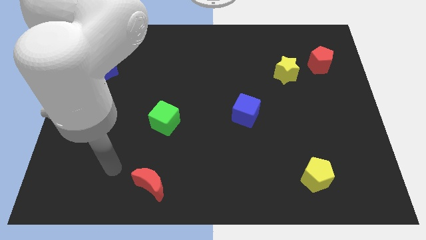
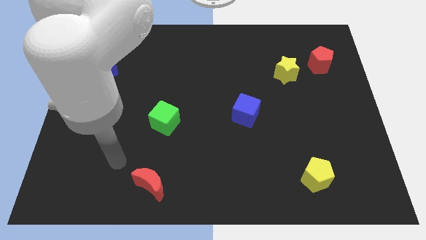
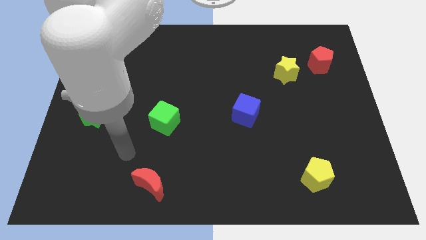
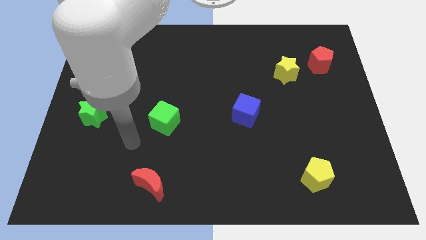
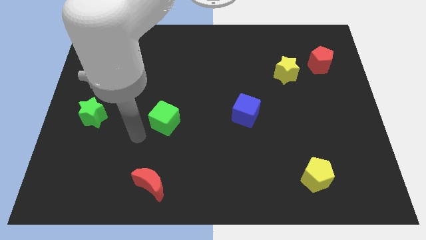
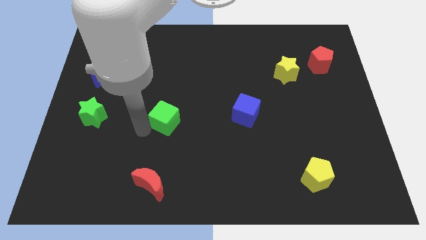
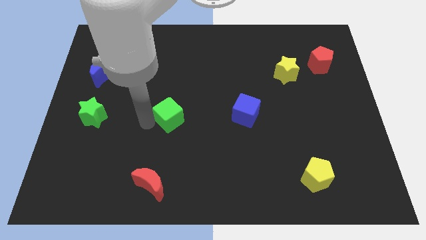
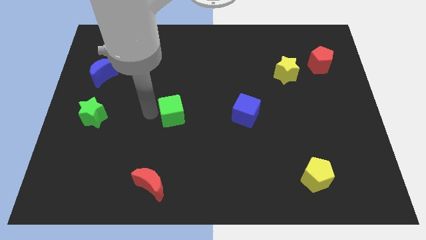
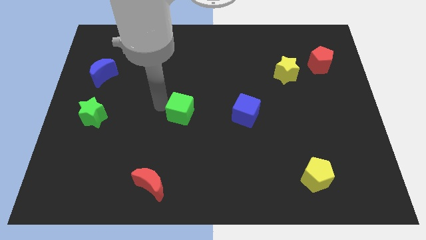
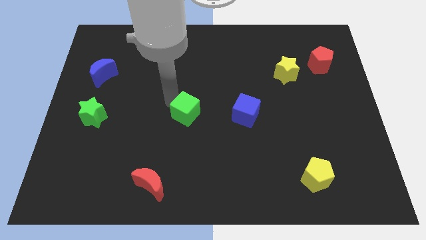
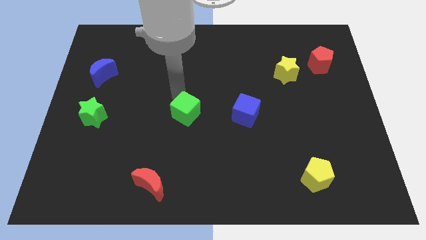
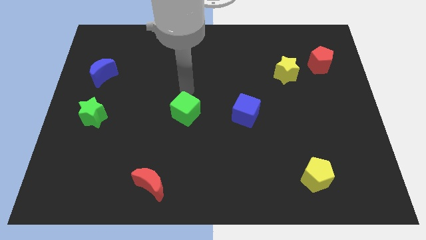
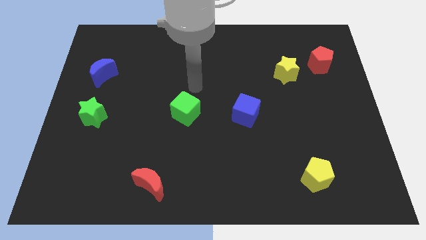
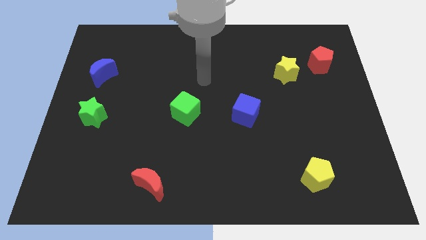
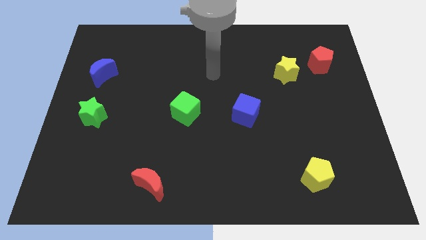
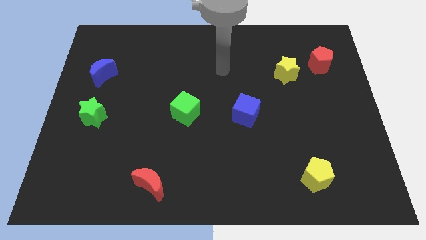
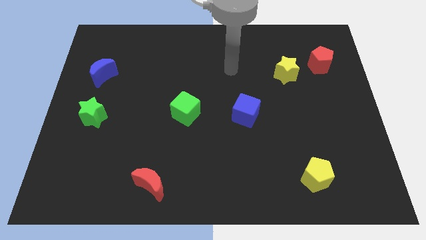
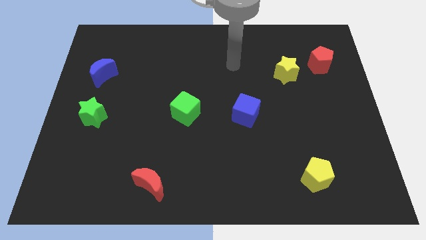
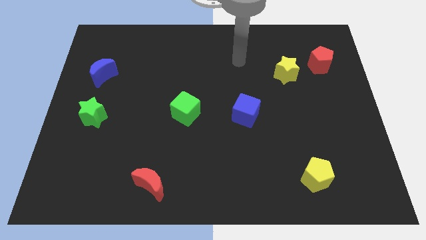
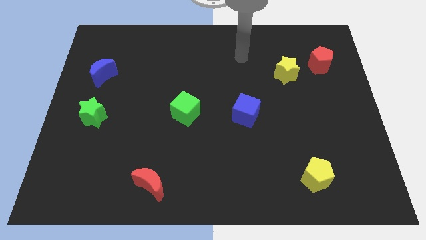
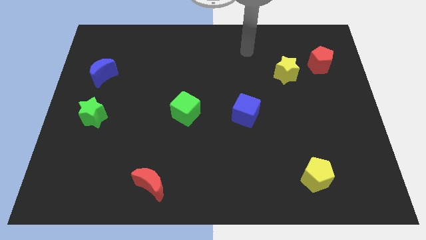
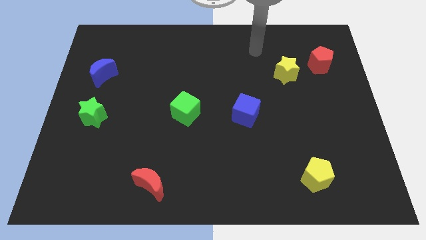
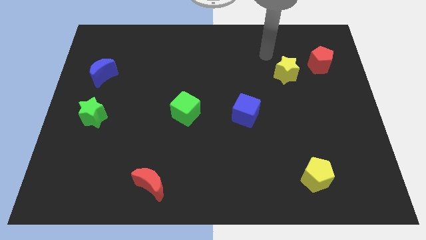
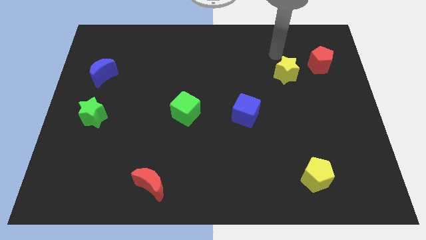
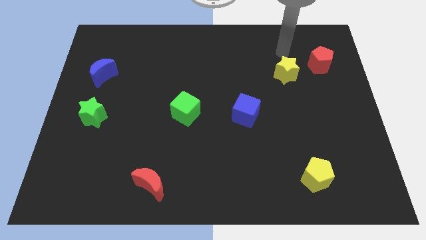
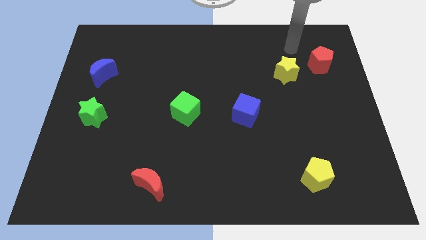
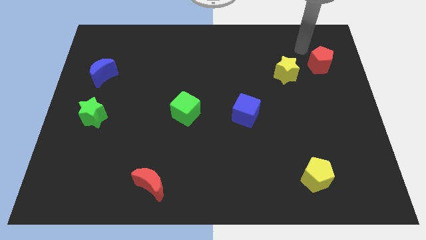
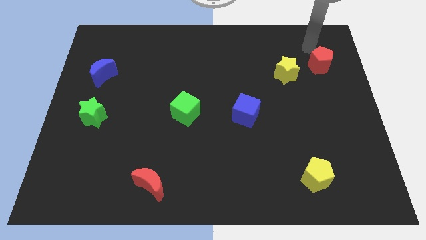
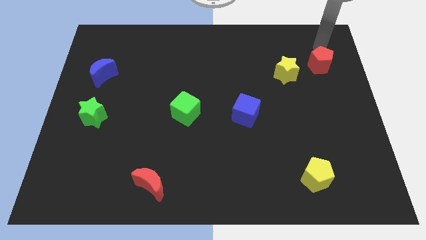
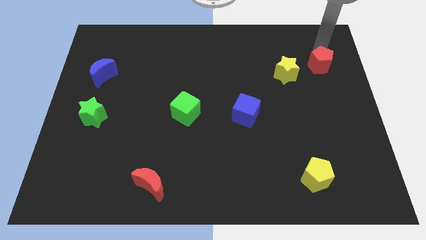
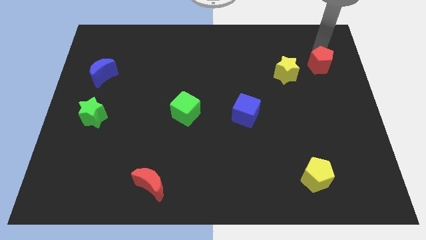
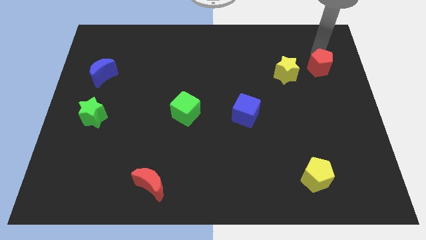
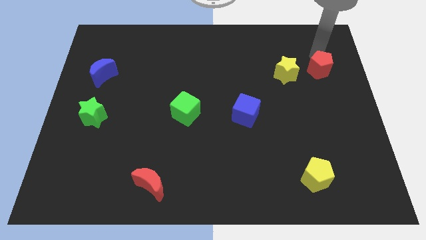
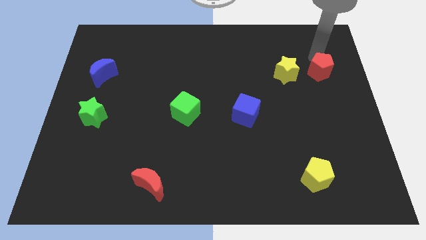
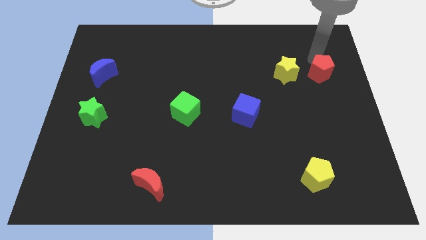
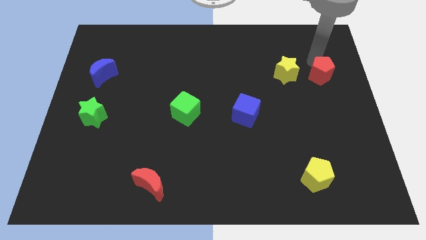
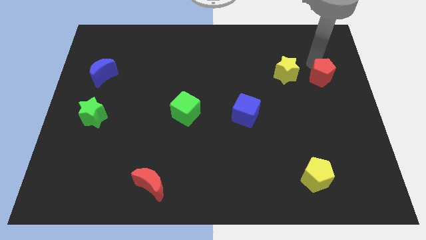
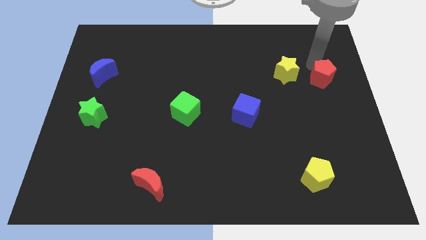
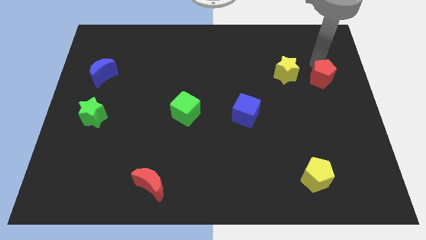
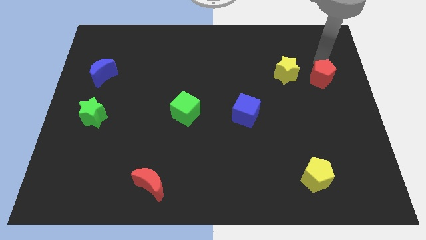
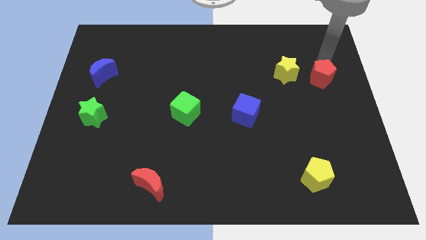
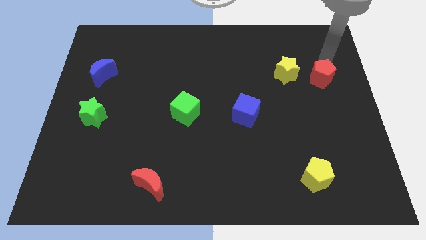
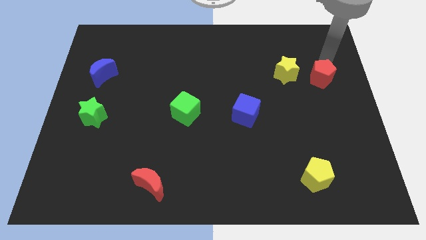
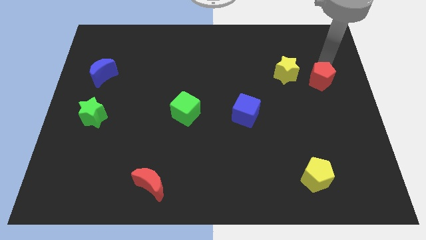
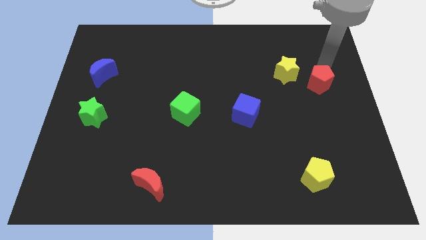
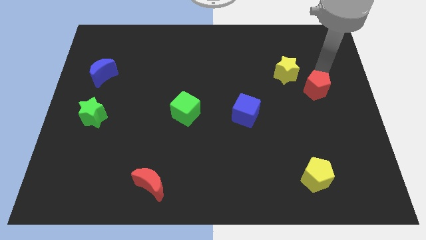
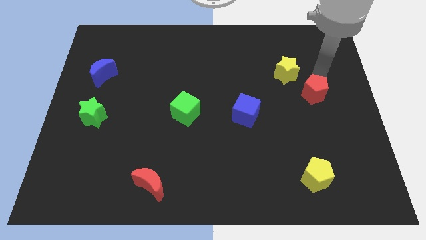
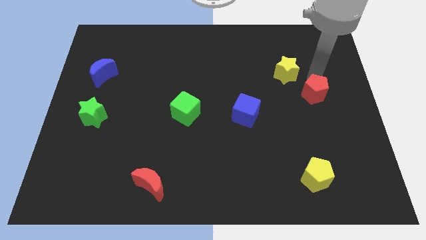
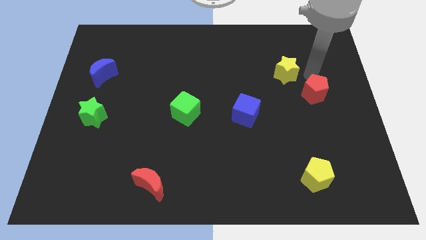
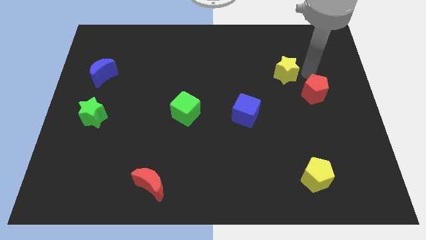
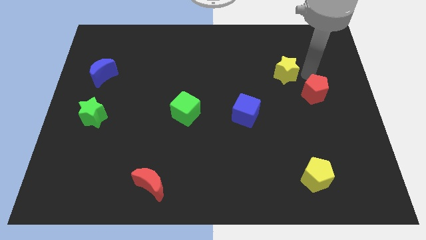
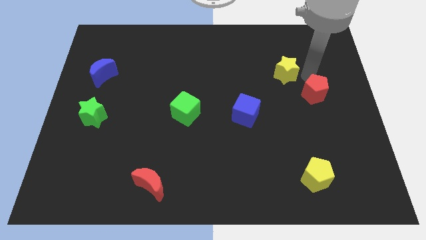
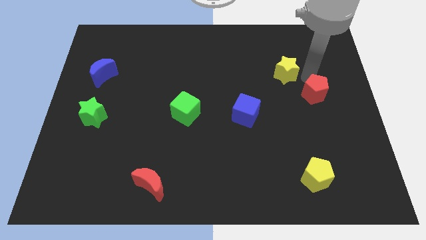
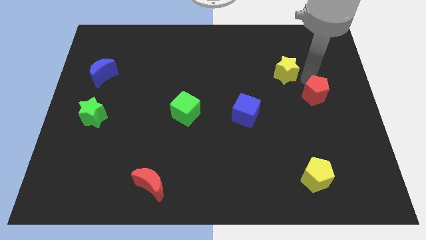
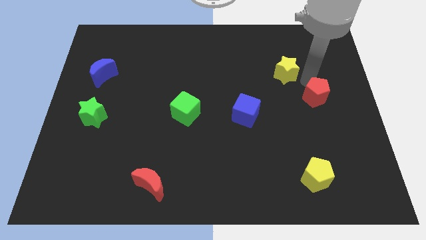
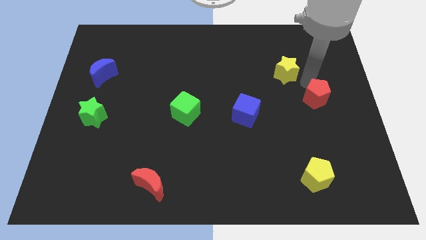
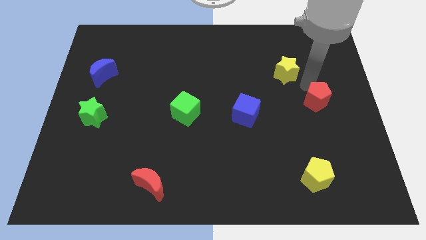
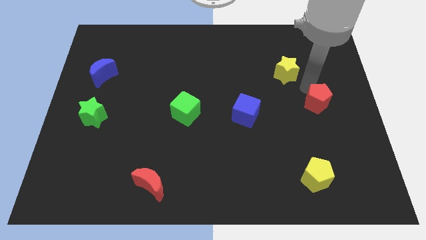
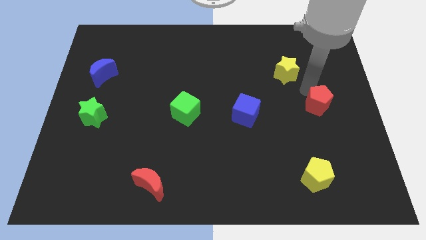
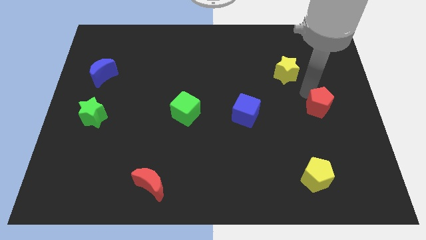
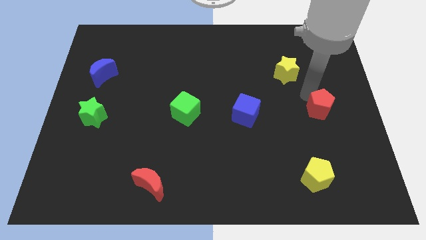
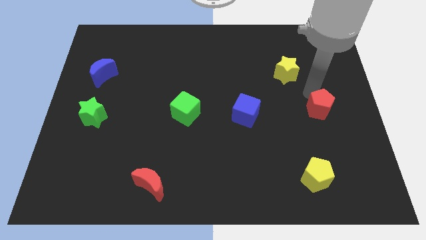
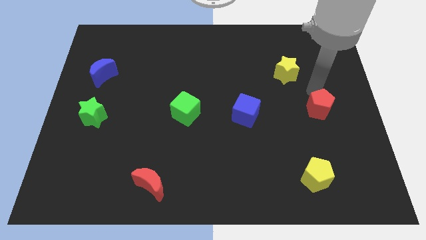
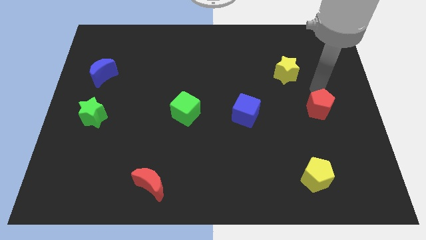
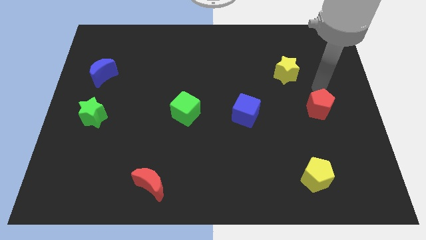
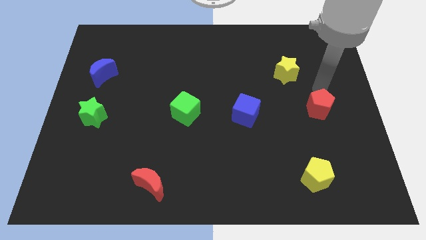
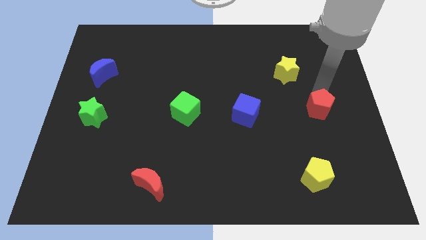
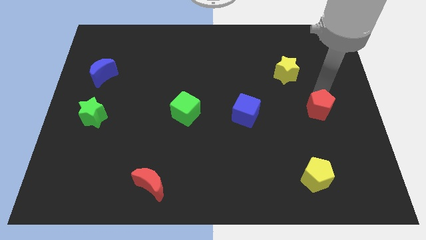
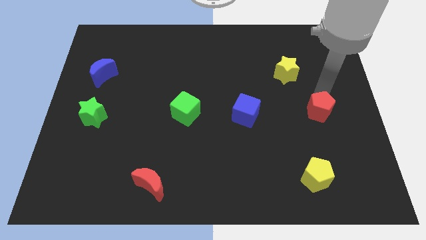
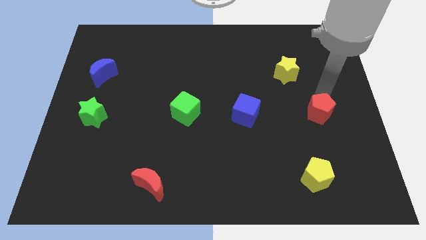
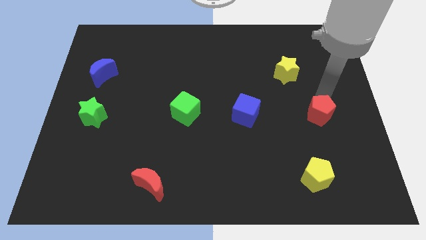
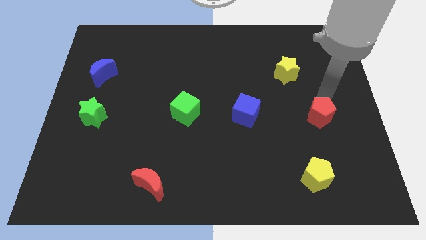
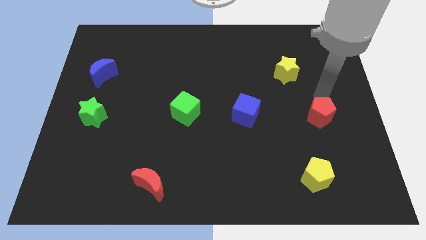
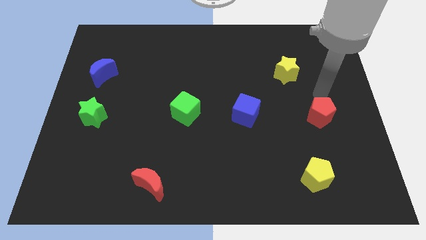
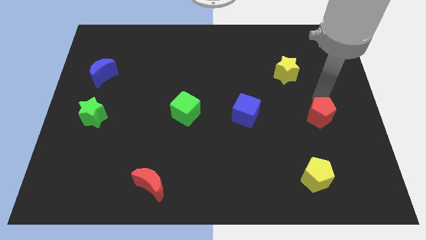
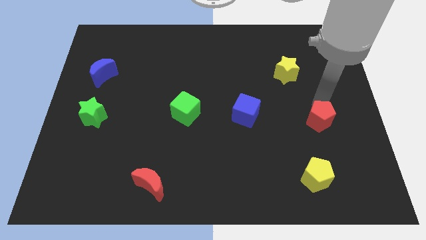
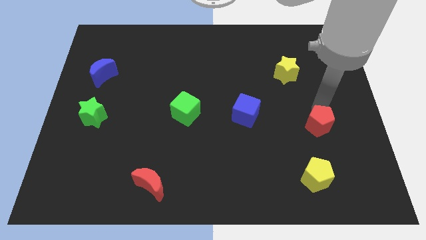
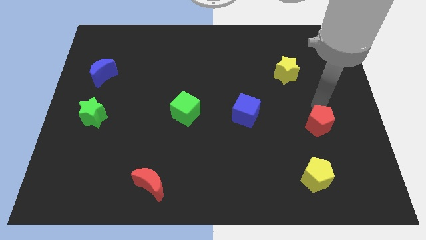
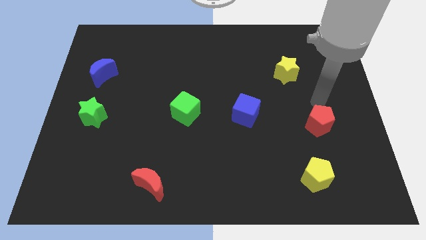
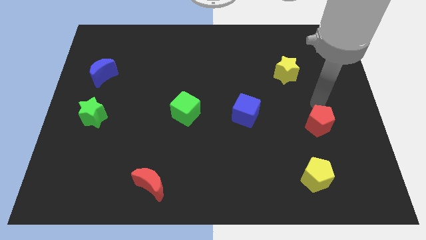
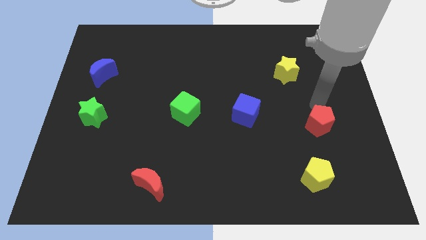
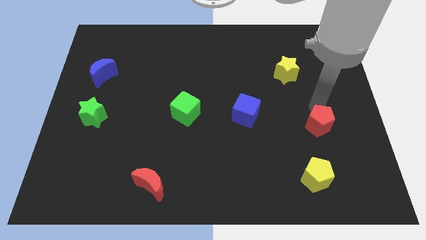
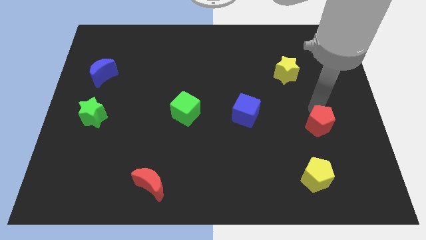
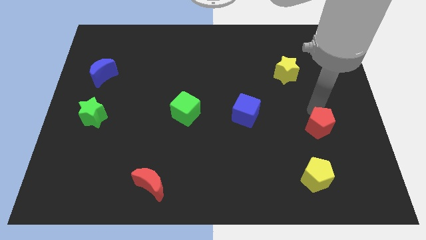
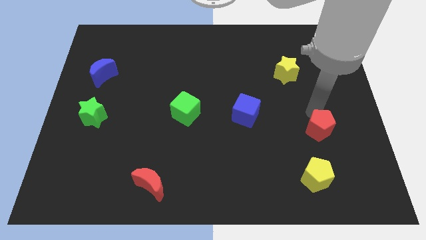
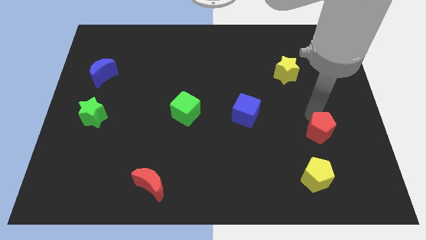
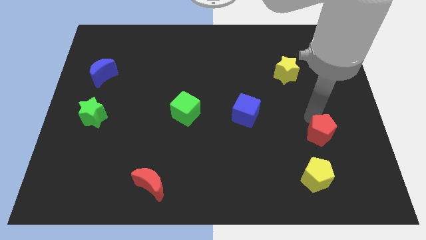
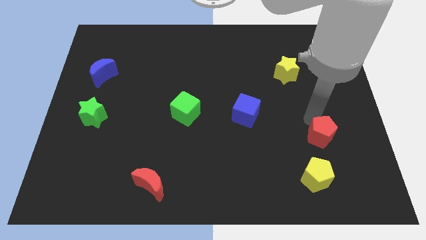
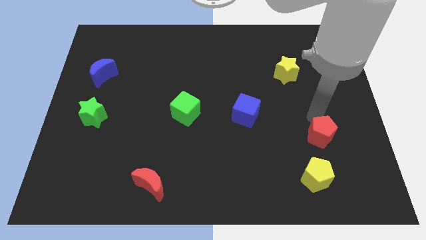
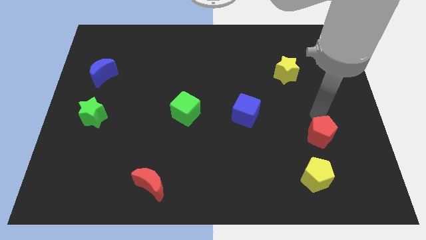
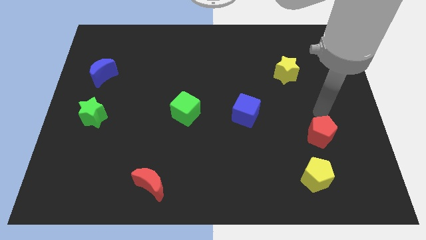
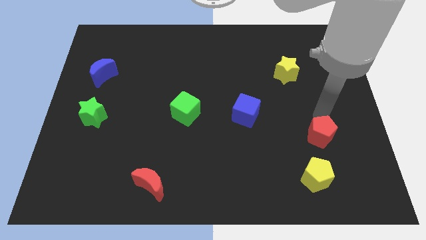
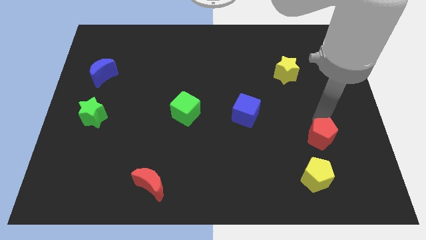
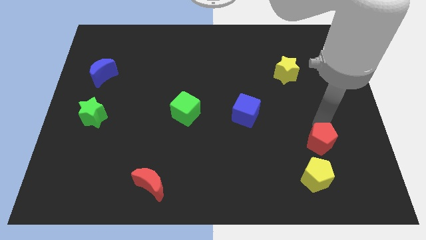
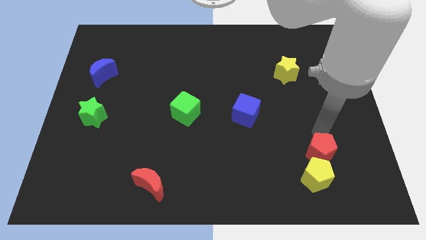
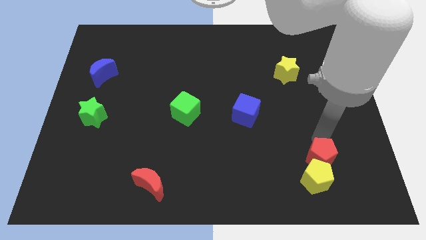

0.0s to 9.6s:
push the red pentagon next to the yellow pentagon
